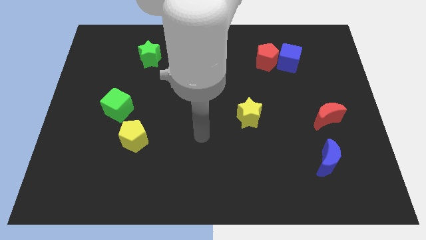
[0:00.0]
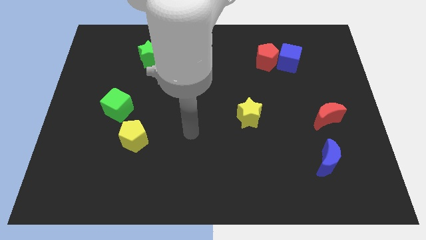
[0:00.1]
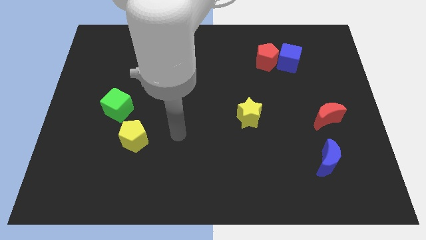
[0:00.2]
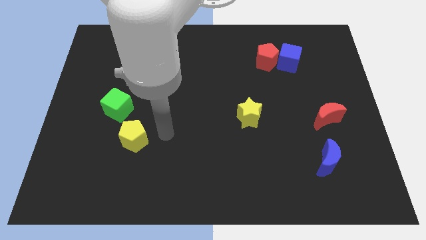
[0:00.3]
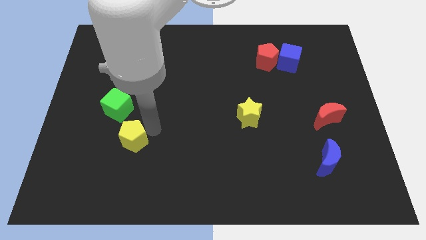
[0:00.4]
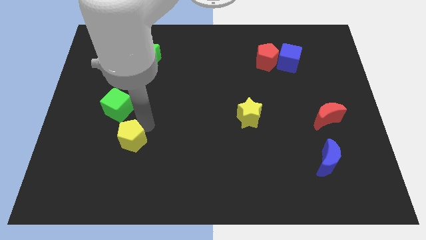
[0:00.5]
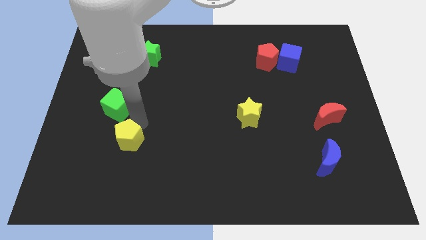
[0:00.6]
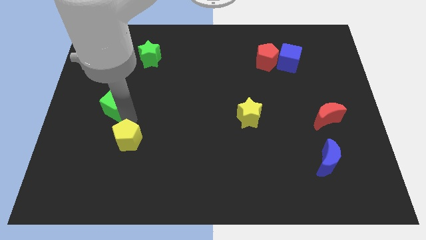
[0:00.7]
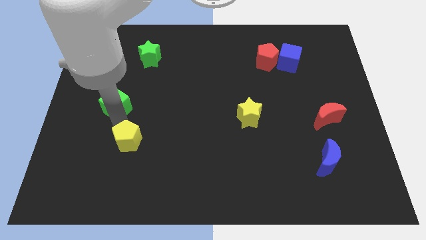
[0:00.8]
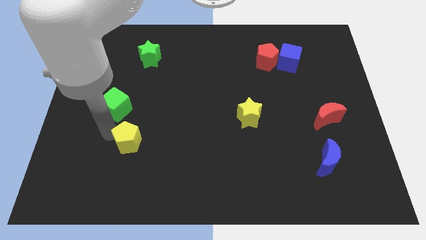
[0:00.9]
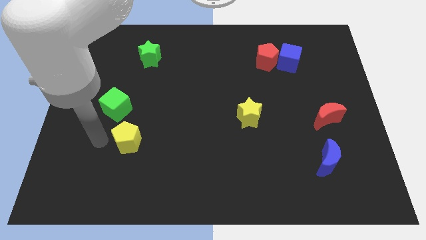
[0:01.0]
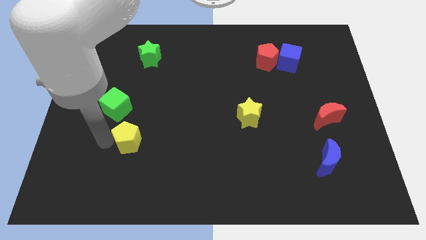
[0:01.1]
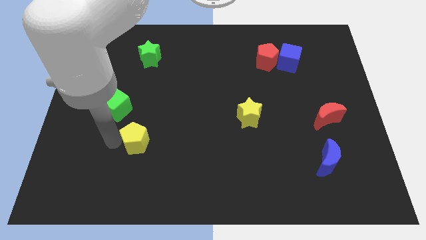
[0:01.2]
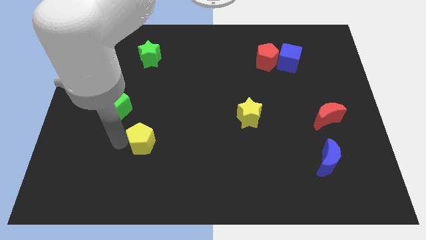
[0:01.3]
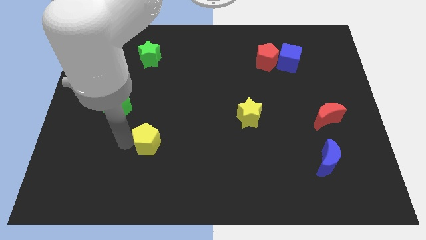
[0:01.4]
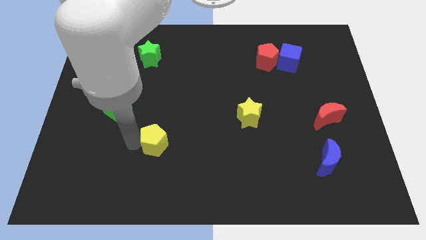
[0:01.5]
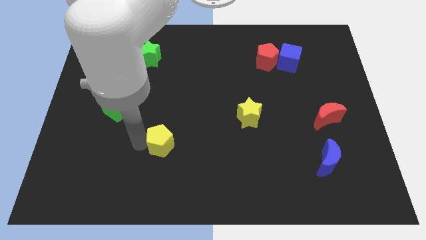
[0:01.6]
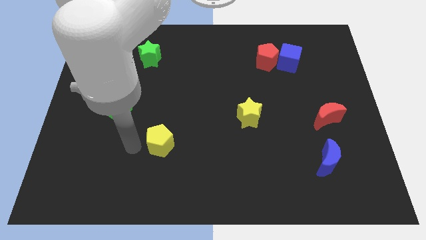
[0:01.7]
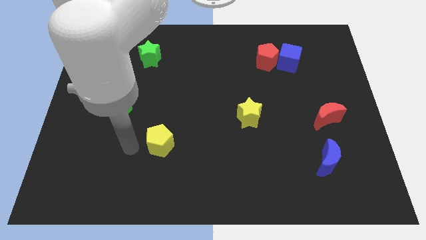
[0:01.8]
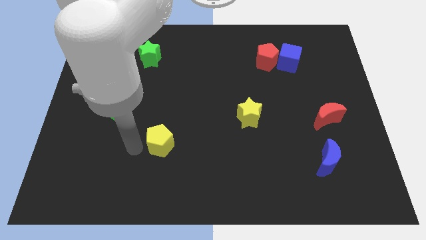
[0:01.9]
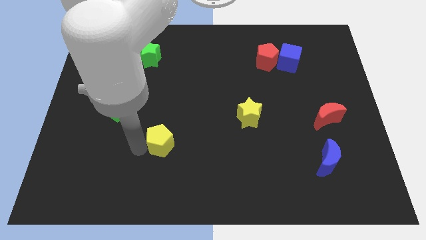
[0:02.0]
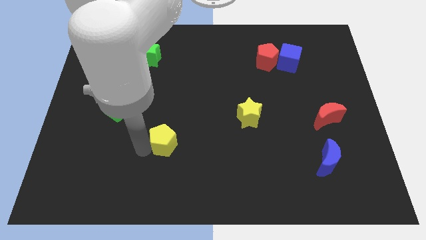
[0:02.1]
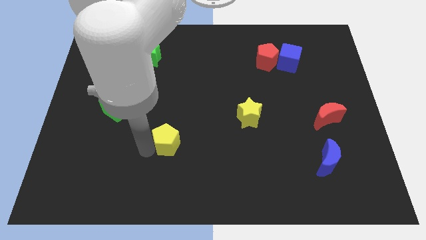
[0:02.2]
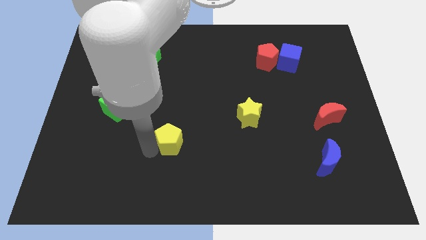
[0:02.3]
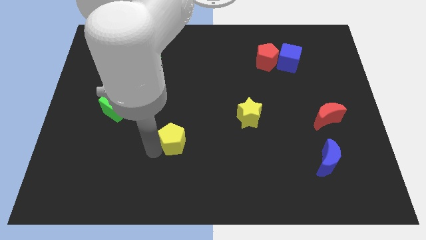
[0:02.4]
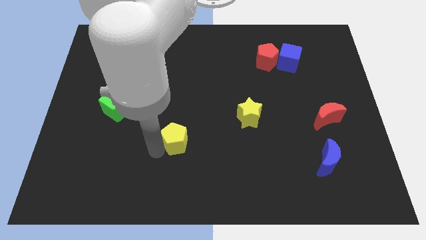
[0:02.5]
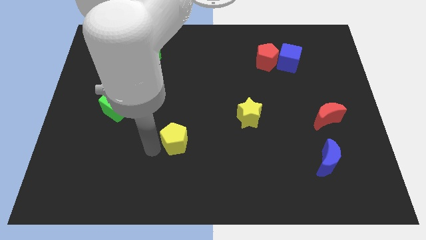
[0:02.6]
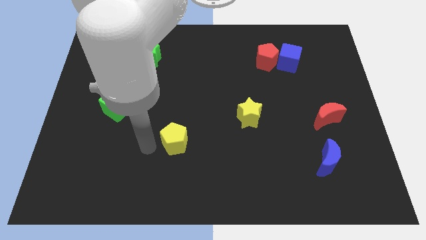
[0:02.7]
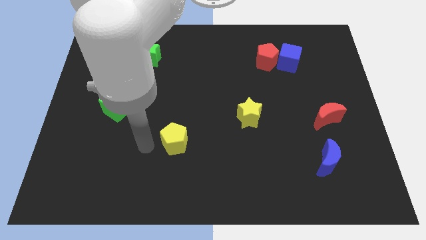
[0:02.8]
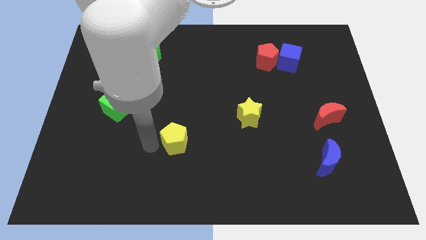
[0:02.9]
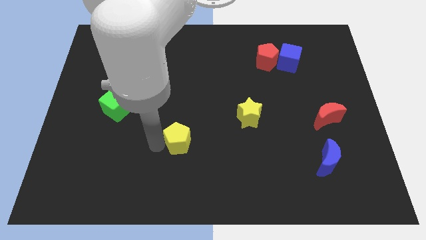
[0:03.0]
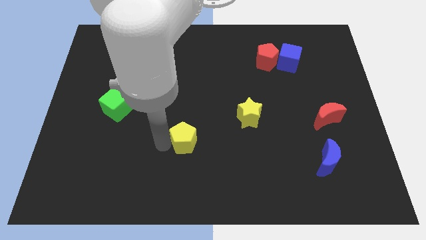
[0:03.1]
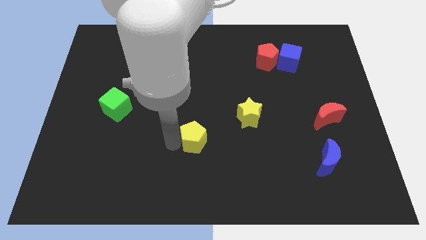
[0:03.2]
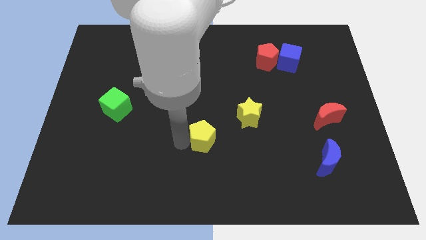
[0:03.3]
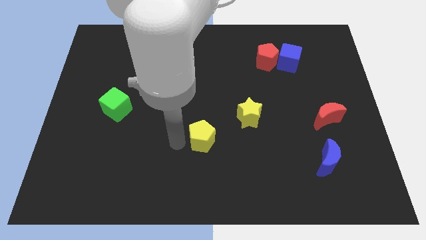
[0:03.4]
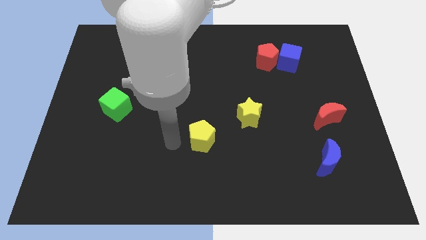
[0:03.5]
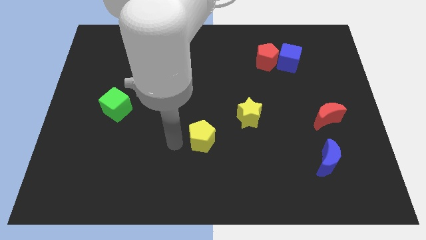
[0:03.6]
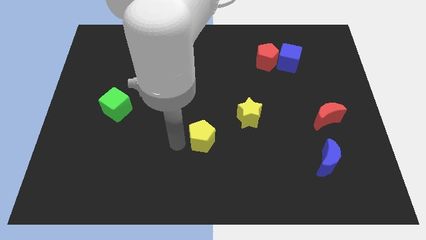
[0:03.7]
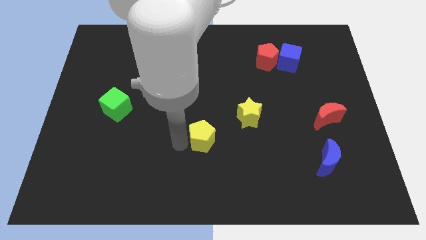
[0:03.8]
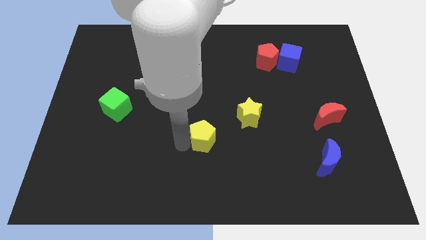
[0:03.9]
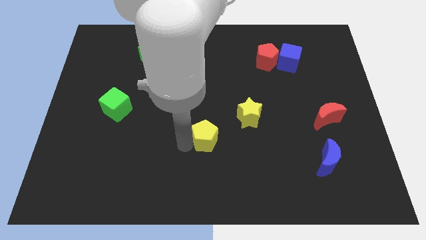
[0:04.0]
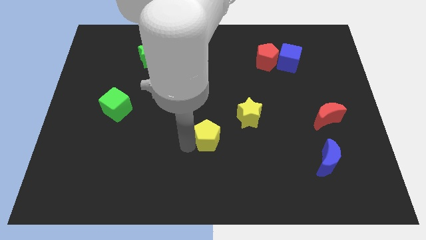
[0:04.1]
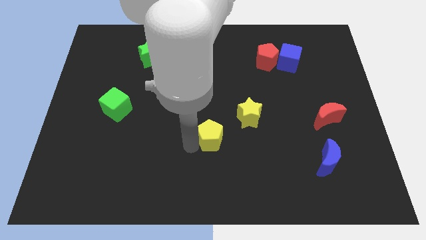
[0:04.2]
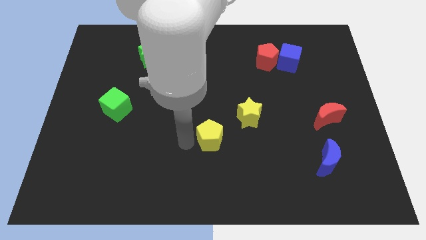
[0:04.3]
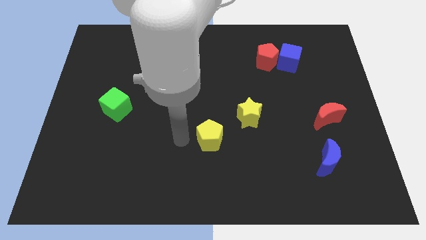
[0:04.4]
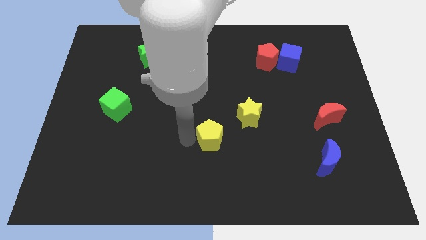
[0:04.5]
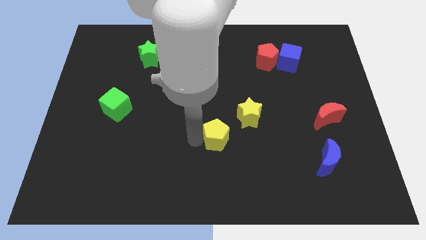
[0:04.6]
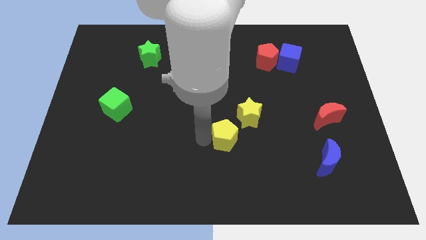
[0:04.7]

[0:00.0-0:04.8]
slide the yellow pentagon to the right

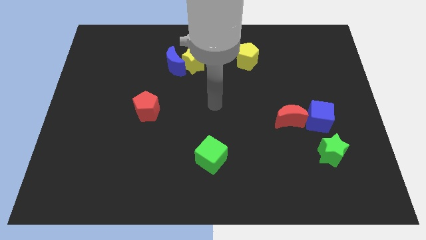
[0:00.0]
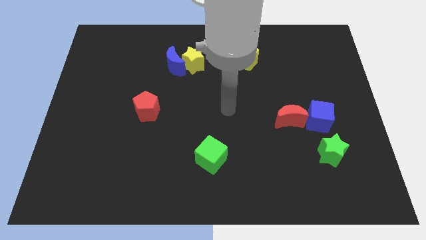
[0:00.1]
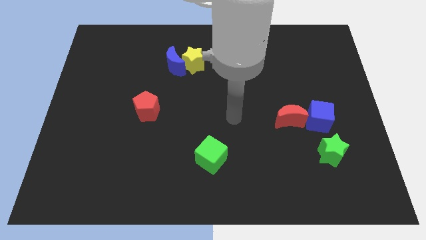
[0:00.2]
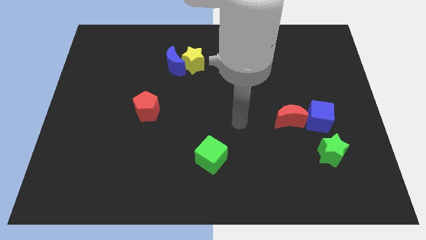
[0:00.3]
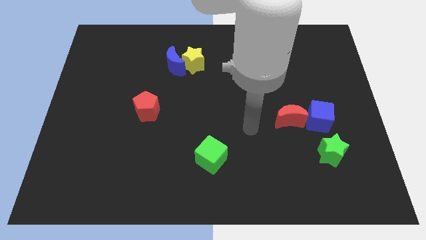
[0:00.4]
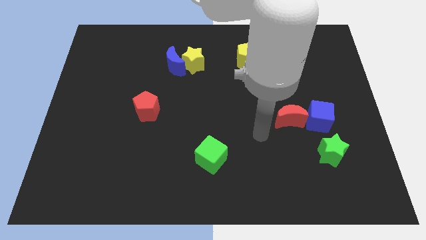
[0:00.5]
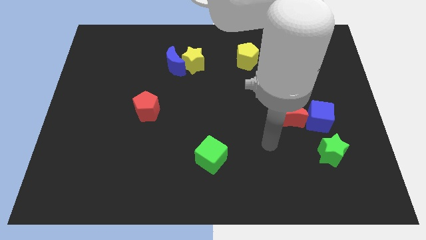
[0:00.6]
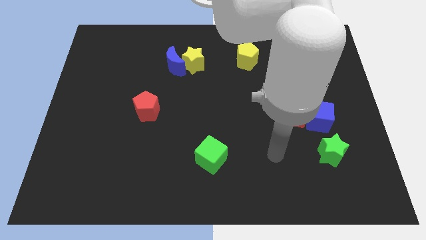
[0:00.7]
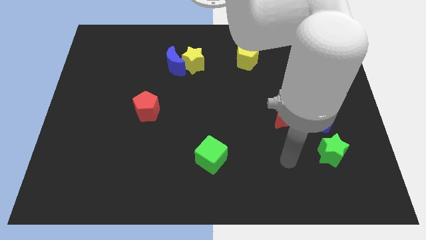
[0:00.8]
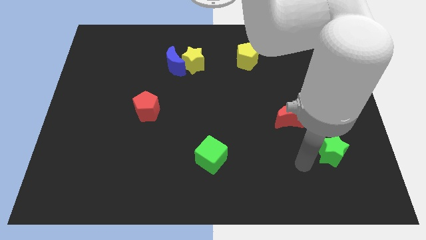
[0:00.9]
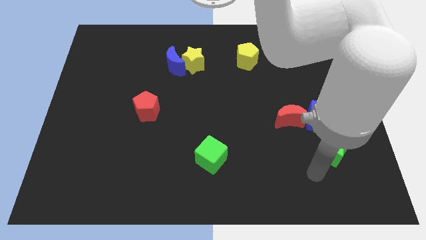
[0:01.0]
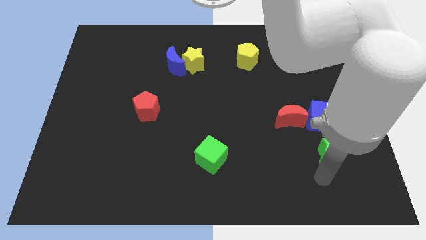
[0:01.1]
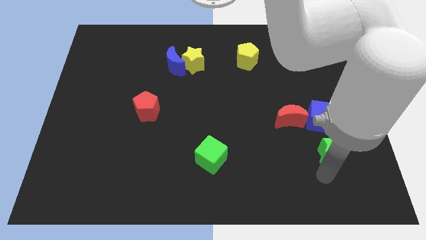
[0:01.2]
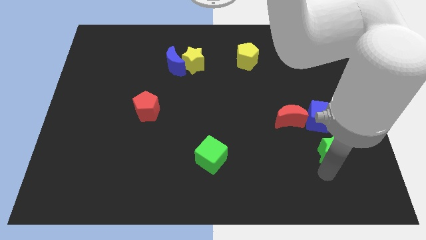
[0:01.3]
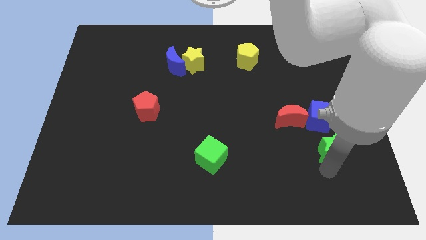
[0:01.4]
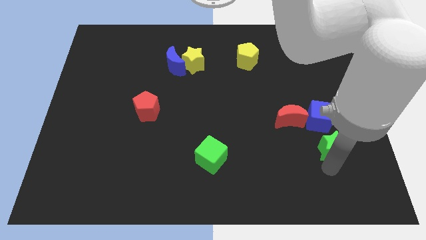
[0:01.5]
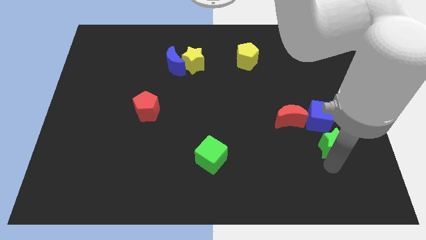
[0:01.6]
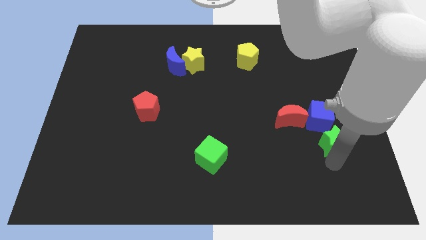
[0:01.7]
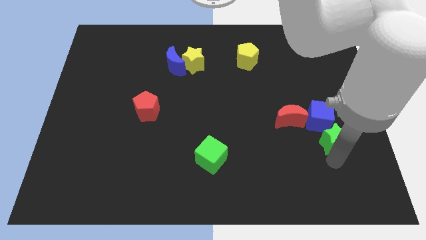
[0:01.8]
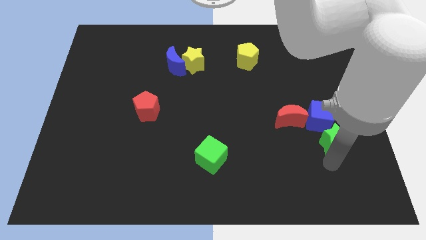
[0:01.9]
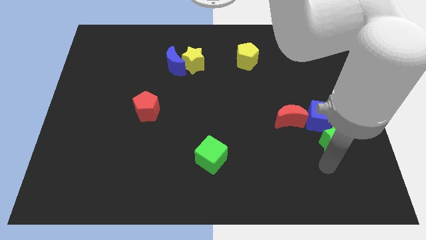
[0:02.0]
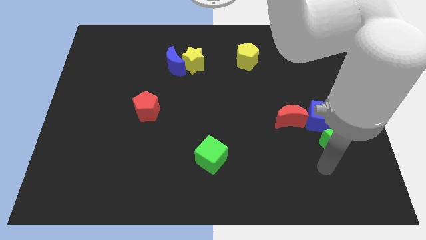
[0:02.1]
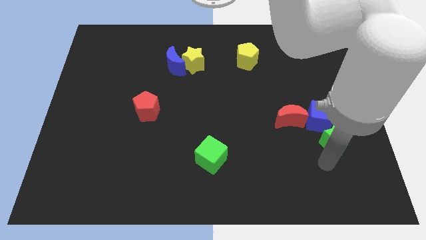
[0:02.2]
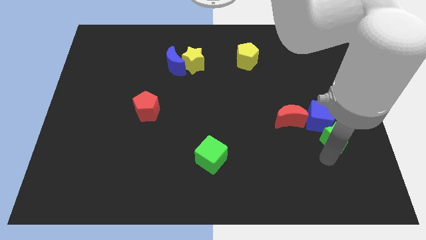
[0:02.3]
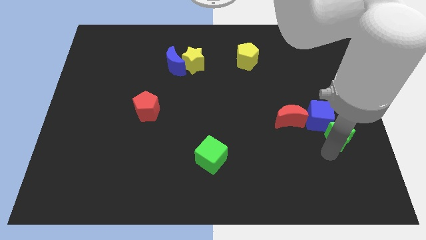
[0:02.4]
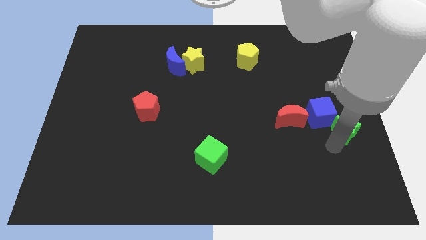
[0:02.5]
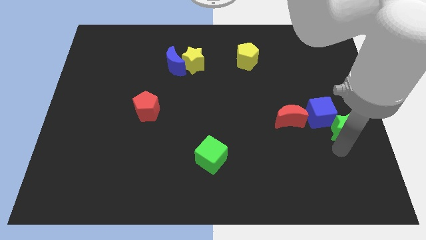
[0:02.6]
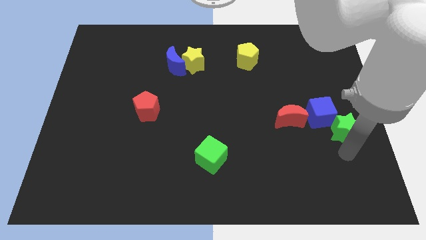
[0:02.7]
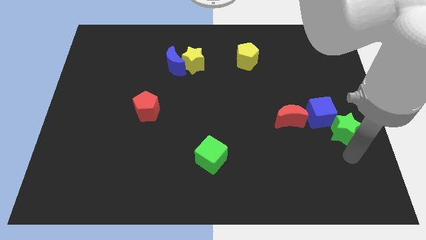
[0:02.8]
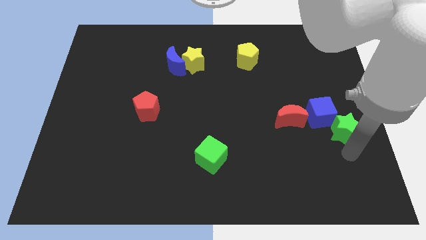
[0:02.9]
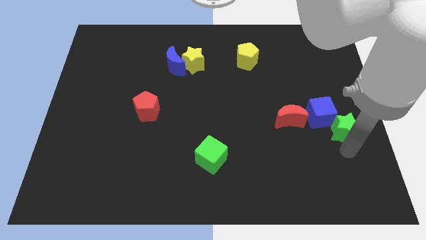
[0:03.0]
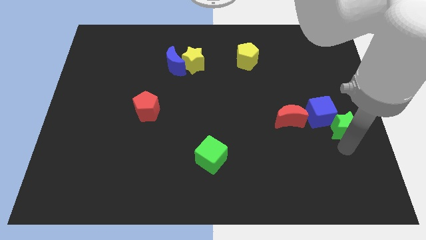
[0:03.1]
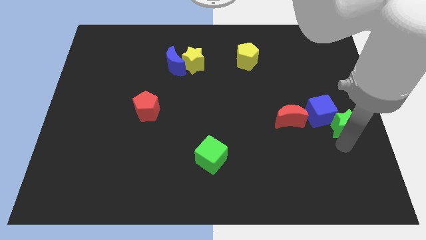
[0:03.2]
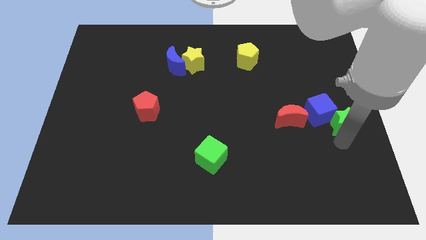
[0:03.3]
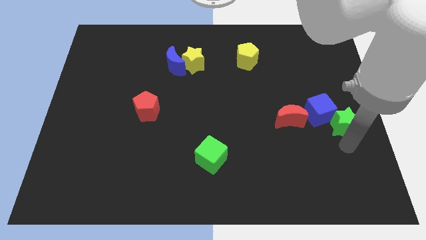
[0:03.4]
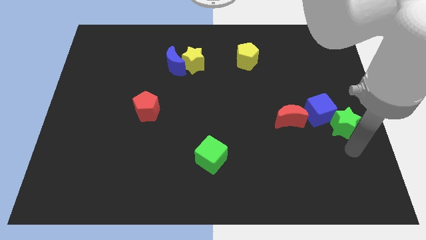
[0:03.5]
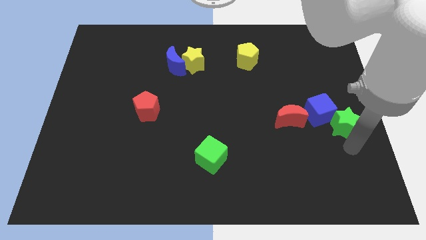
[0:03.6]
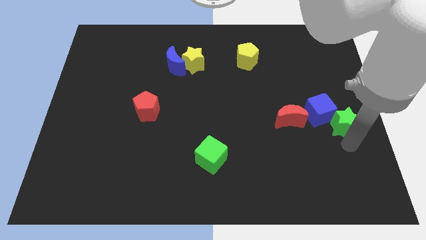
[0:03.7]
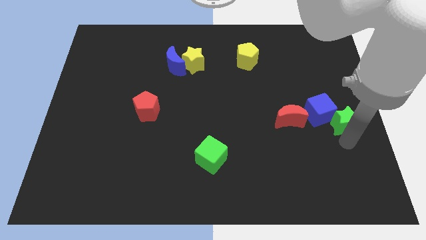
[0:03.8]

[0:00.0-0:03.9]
move the green star a little bit upwards
